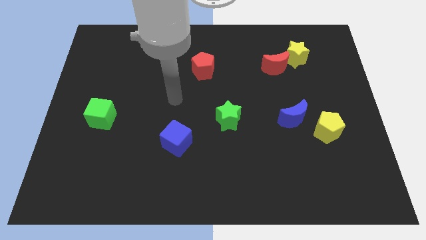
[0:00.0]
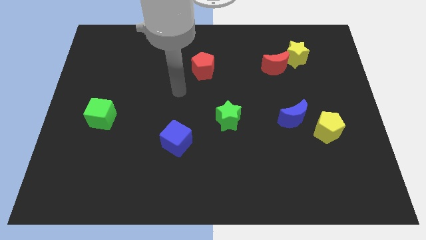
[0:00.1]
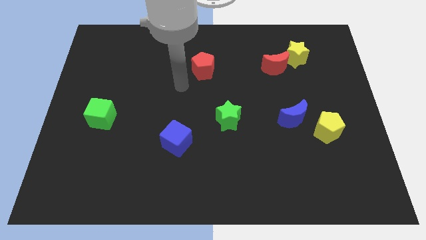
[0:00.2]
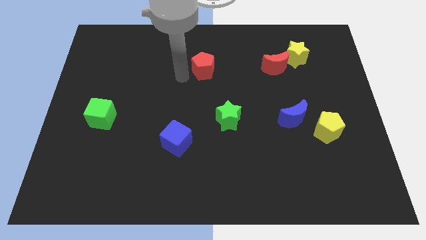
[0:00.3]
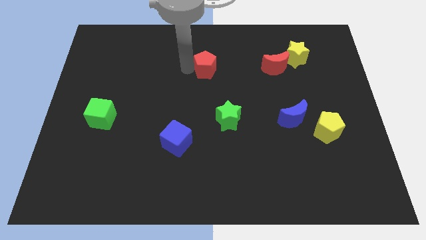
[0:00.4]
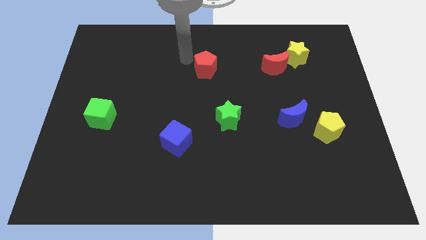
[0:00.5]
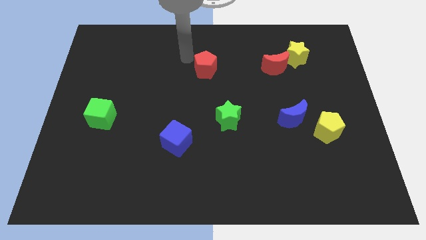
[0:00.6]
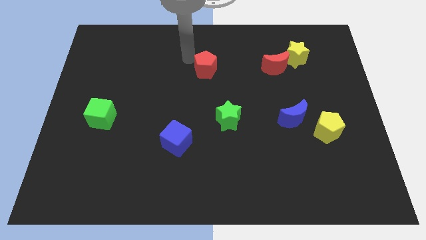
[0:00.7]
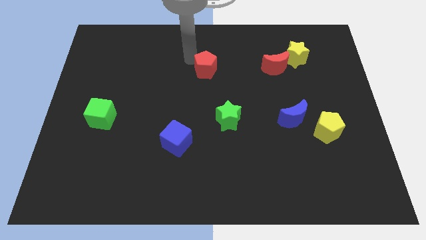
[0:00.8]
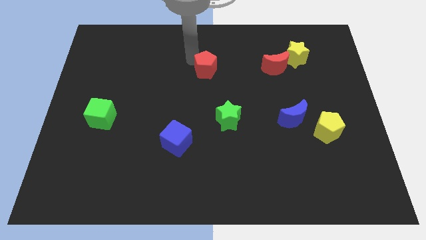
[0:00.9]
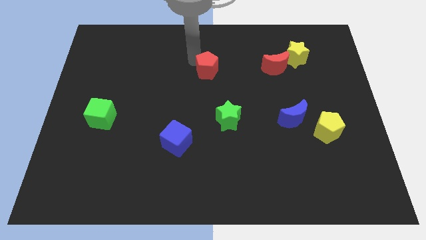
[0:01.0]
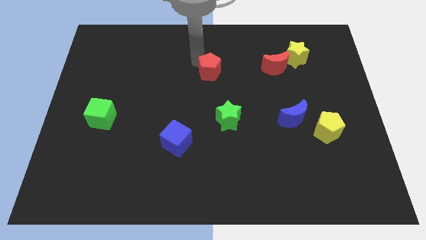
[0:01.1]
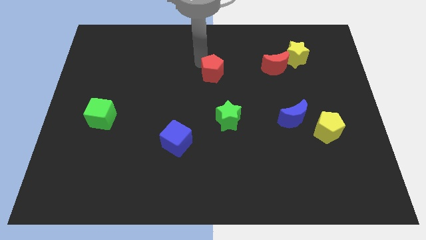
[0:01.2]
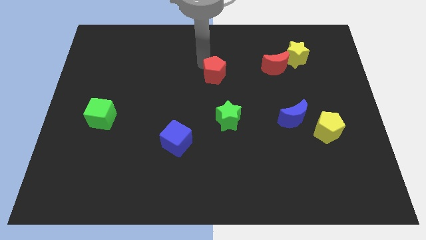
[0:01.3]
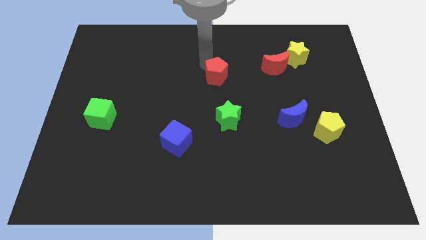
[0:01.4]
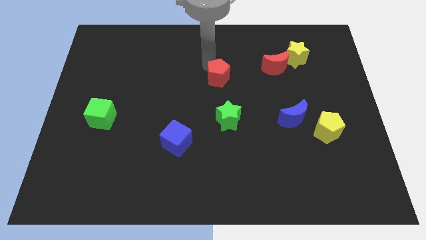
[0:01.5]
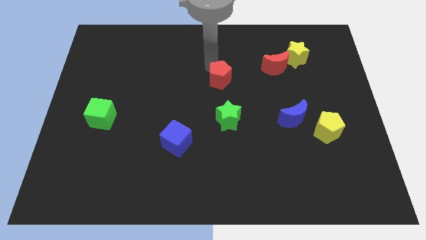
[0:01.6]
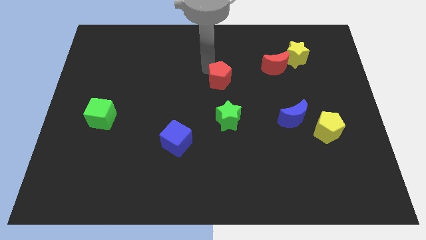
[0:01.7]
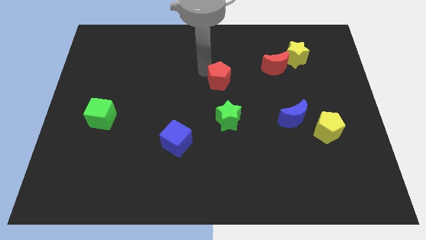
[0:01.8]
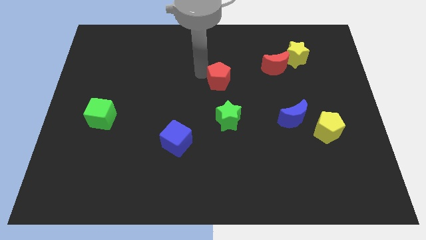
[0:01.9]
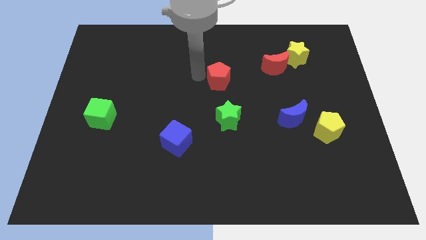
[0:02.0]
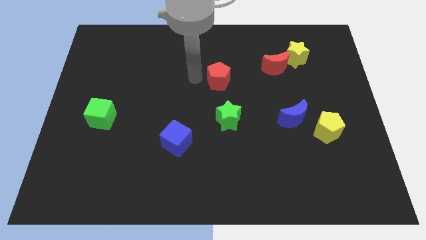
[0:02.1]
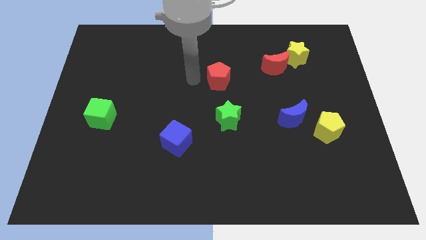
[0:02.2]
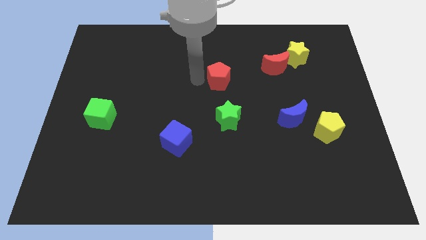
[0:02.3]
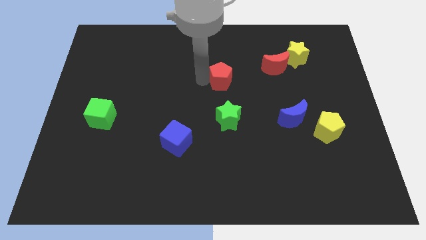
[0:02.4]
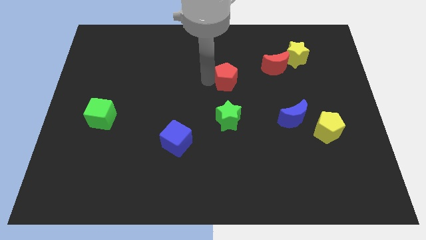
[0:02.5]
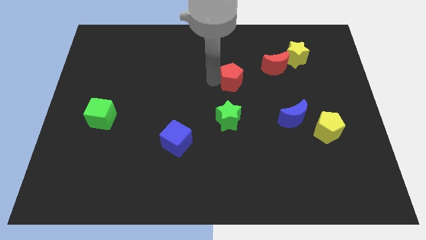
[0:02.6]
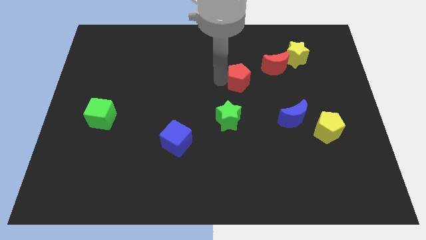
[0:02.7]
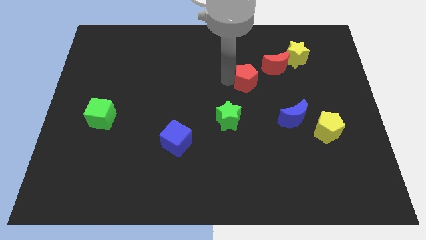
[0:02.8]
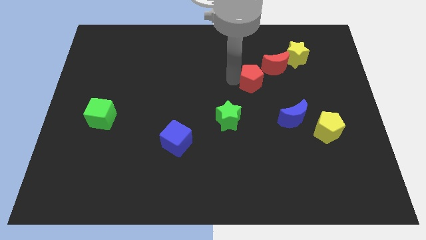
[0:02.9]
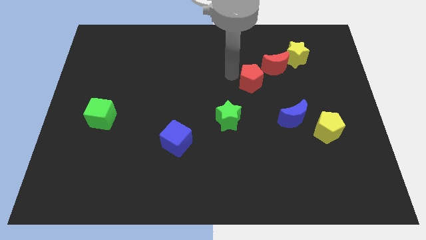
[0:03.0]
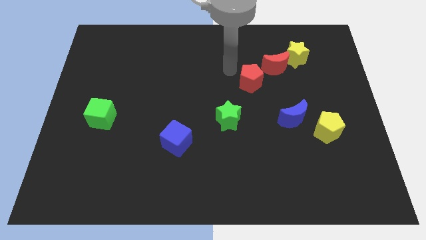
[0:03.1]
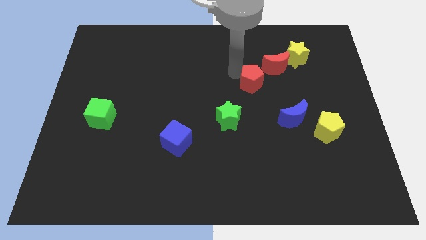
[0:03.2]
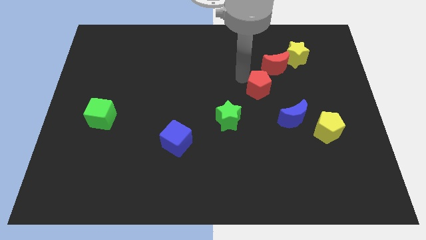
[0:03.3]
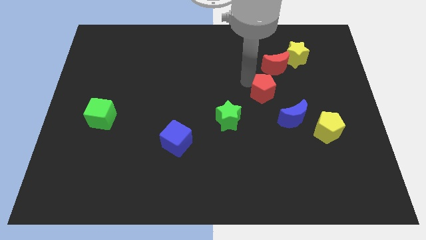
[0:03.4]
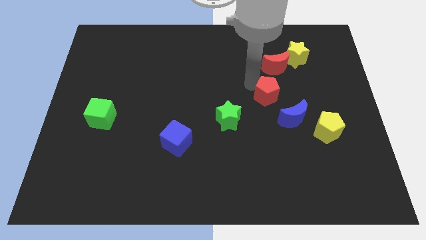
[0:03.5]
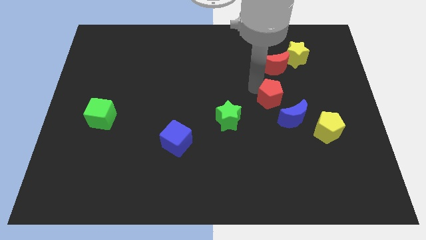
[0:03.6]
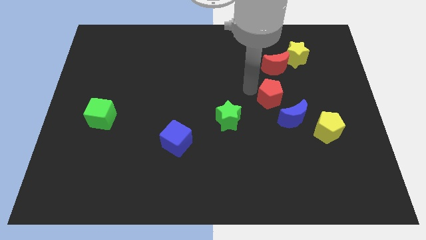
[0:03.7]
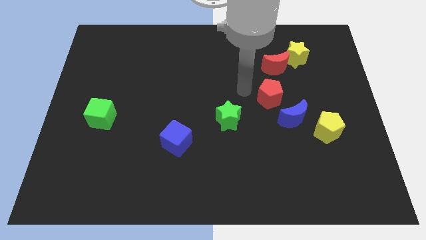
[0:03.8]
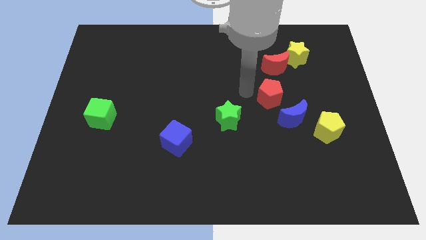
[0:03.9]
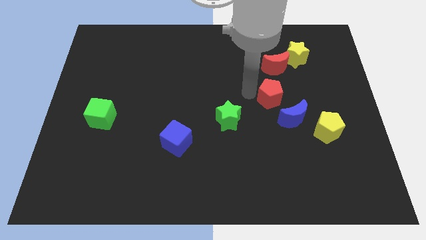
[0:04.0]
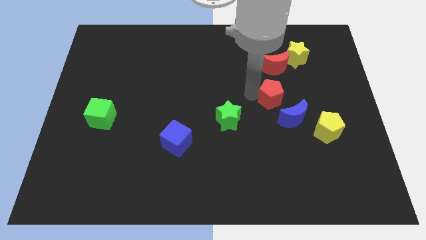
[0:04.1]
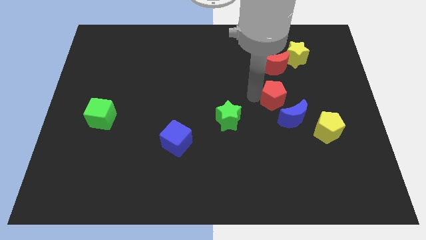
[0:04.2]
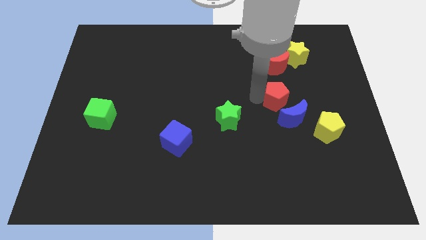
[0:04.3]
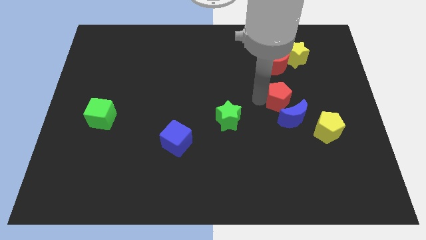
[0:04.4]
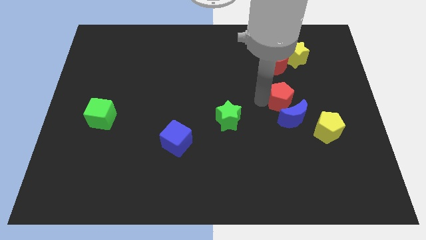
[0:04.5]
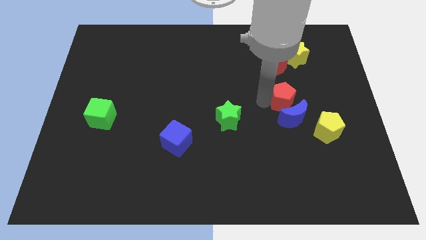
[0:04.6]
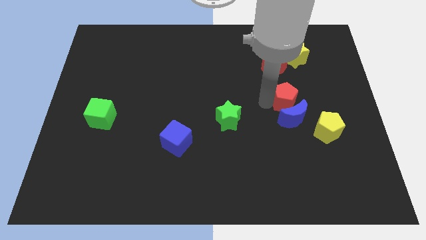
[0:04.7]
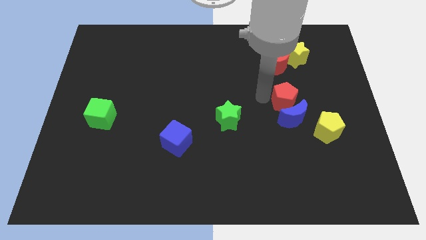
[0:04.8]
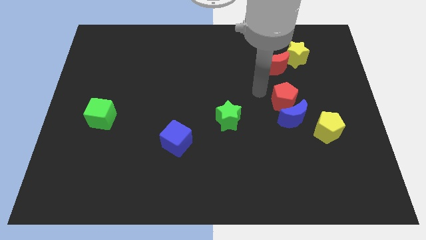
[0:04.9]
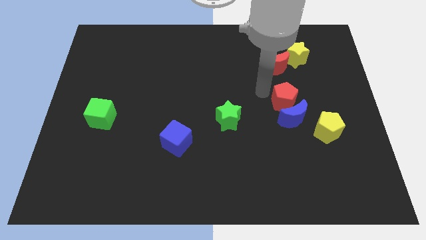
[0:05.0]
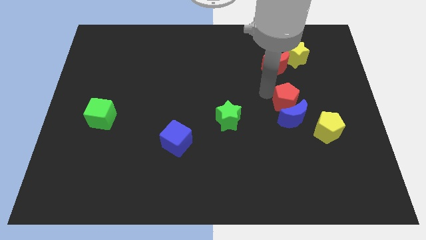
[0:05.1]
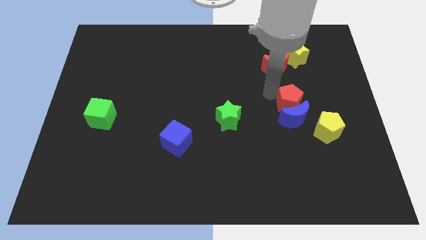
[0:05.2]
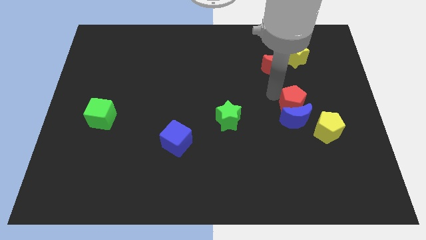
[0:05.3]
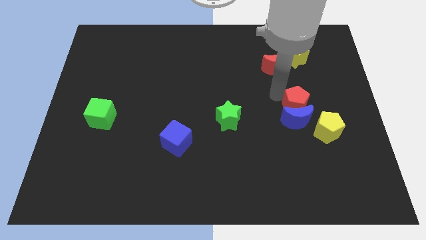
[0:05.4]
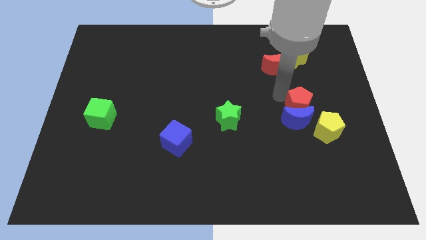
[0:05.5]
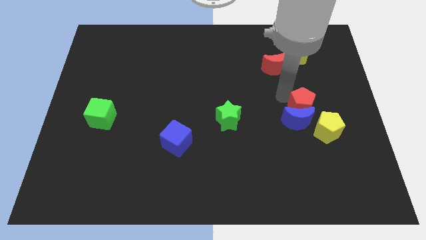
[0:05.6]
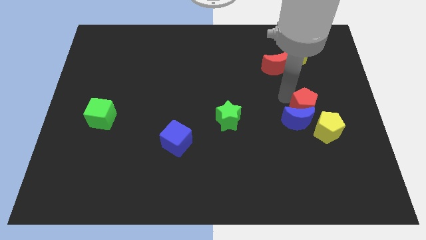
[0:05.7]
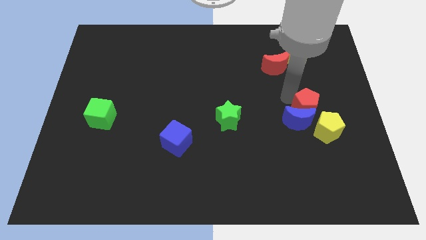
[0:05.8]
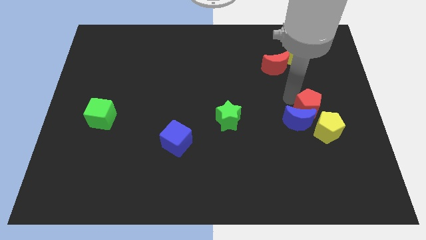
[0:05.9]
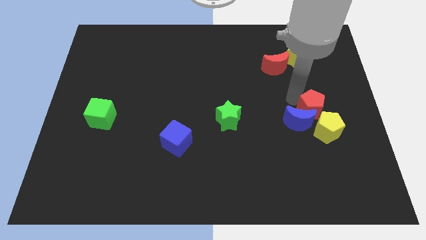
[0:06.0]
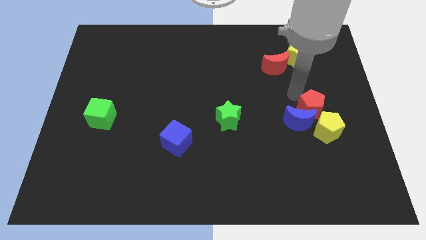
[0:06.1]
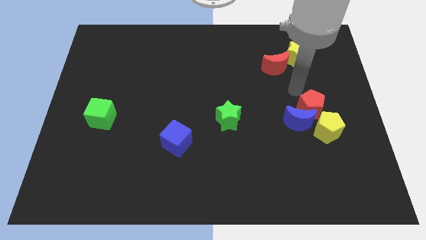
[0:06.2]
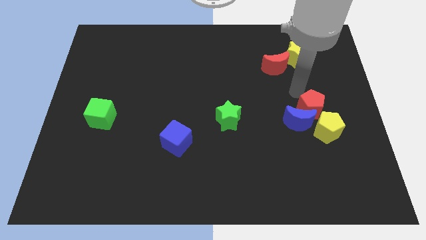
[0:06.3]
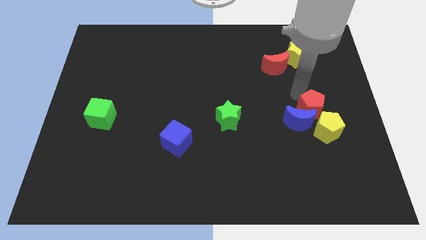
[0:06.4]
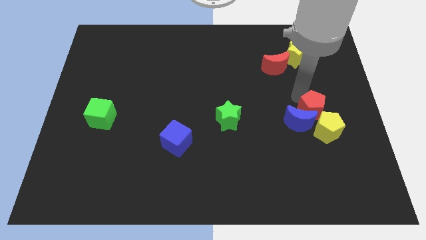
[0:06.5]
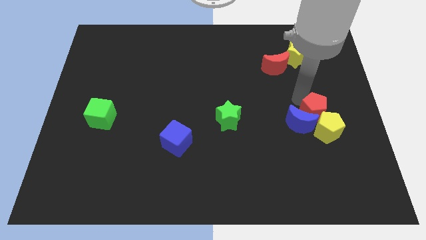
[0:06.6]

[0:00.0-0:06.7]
put the red pentagon to the yellow pentagon

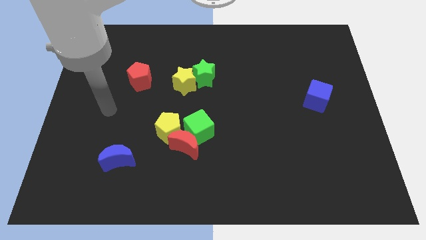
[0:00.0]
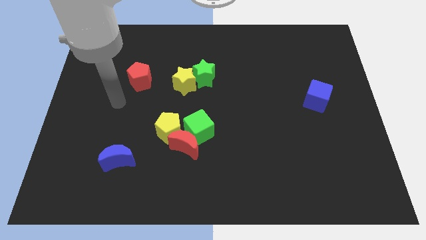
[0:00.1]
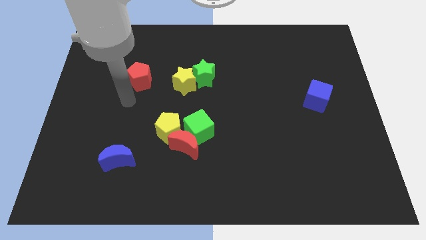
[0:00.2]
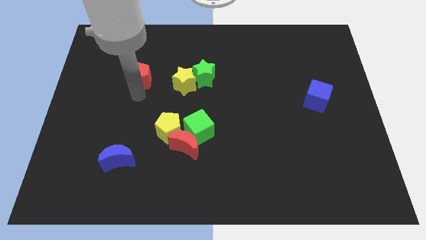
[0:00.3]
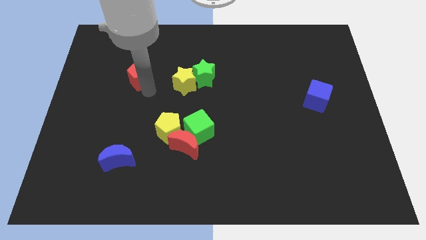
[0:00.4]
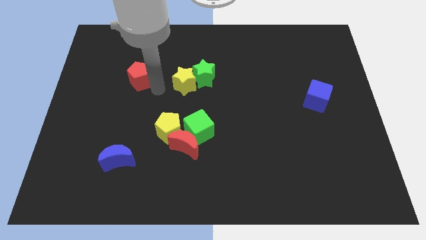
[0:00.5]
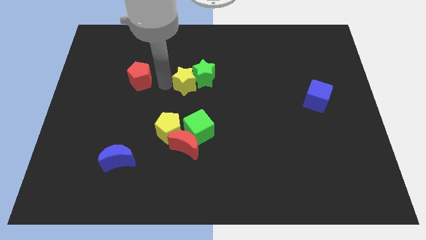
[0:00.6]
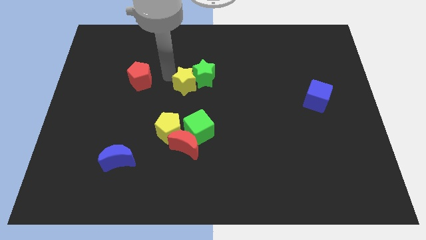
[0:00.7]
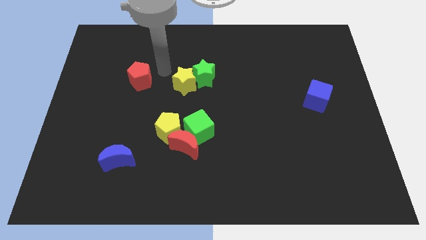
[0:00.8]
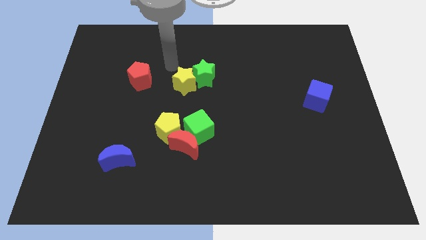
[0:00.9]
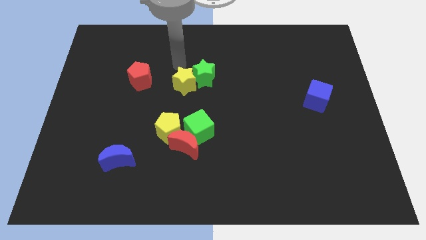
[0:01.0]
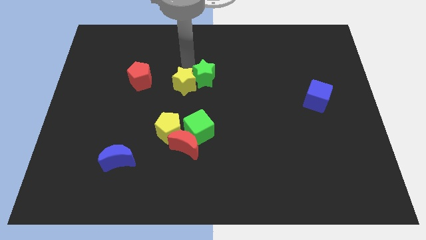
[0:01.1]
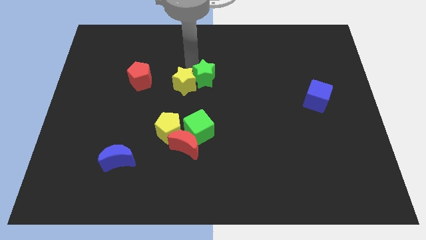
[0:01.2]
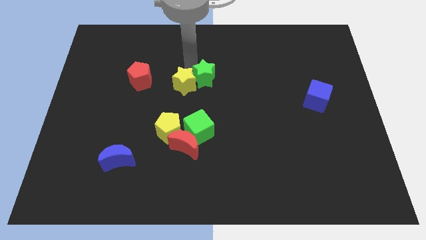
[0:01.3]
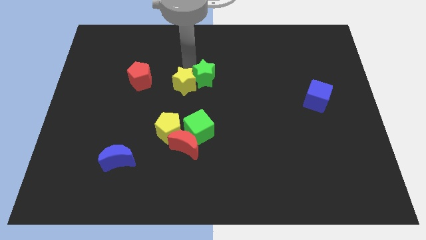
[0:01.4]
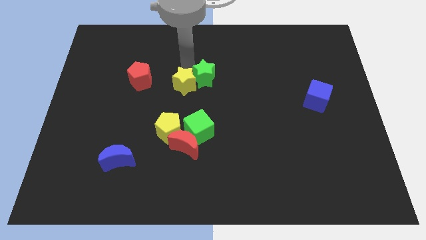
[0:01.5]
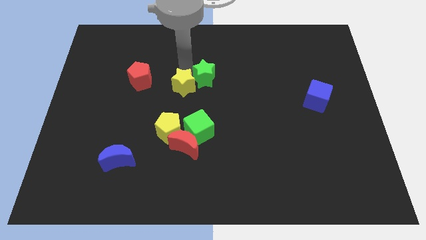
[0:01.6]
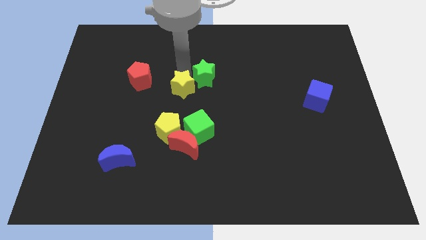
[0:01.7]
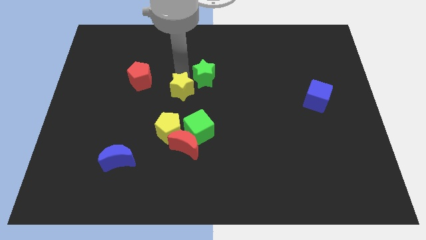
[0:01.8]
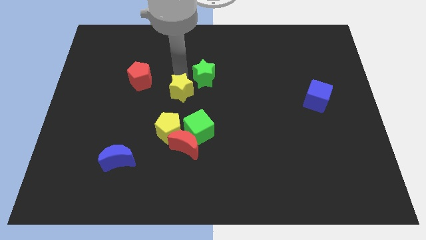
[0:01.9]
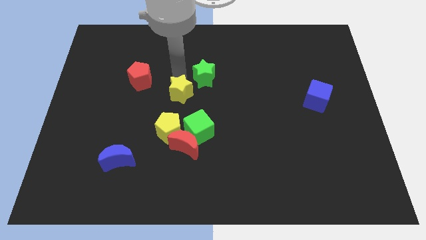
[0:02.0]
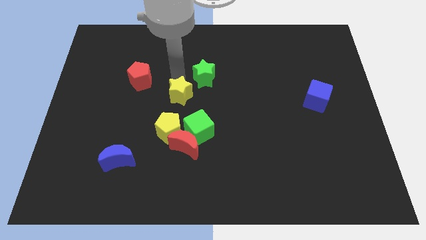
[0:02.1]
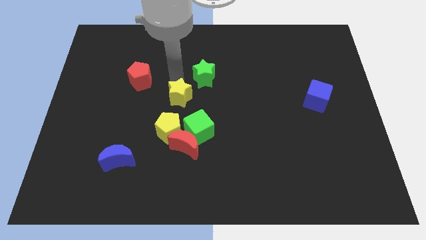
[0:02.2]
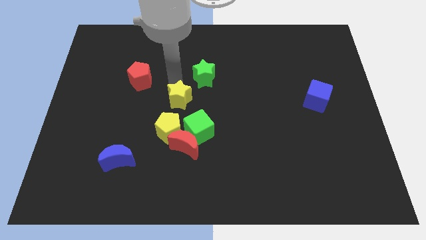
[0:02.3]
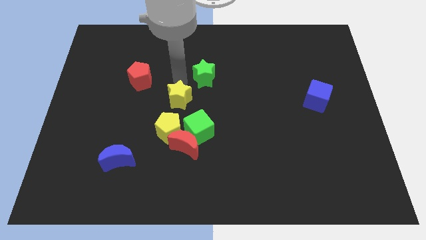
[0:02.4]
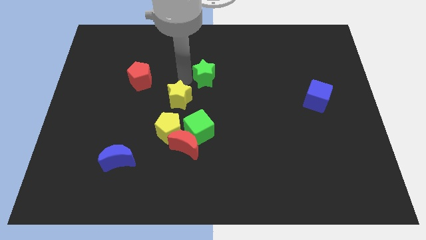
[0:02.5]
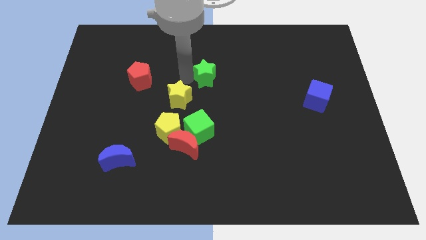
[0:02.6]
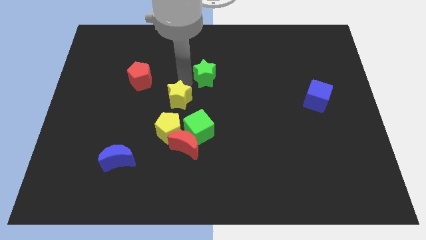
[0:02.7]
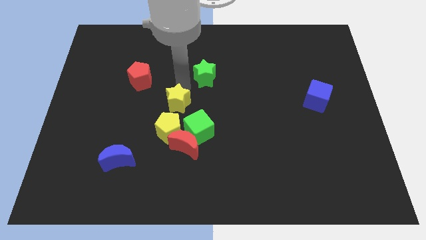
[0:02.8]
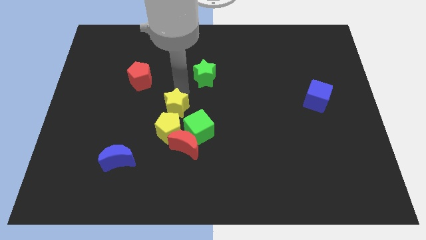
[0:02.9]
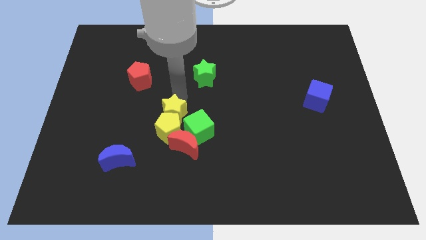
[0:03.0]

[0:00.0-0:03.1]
slide the yellow star next to the yellow pentagon
